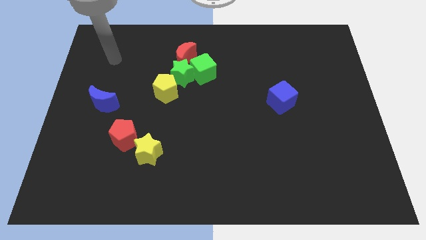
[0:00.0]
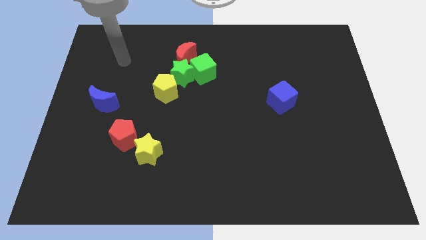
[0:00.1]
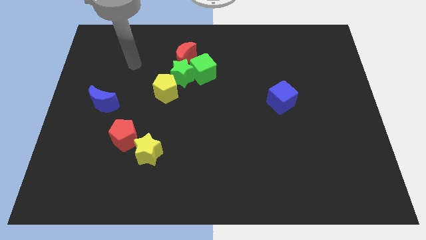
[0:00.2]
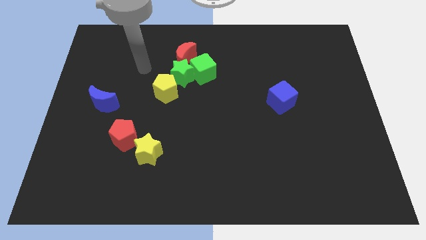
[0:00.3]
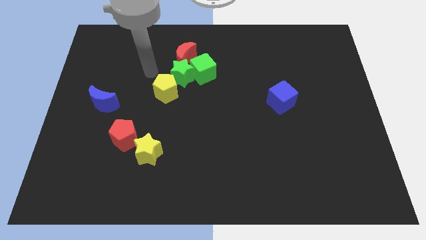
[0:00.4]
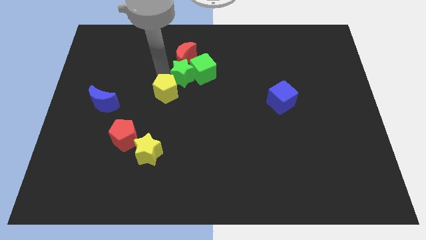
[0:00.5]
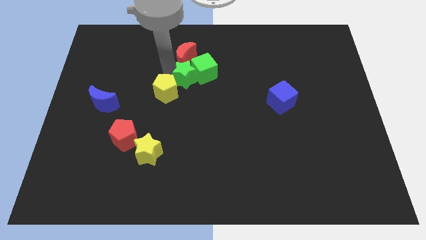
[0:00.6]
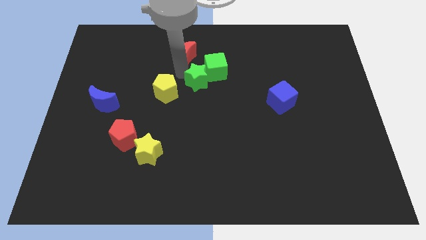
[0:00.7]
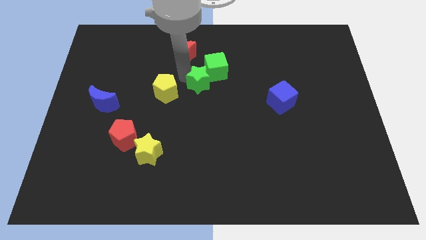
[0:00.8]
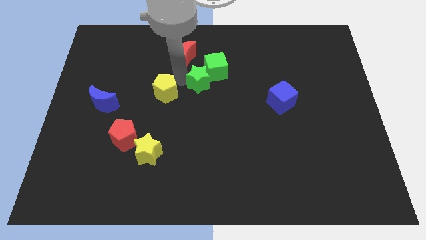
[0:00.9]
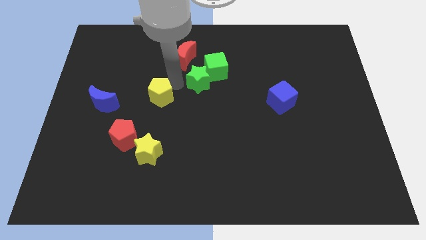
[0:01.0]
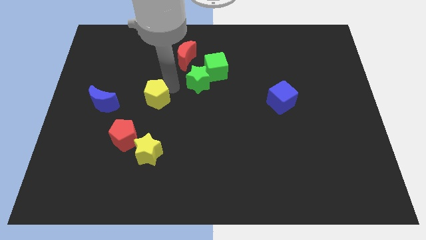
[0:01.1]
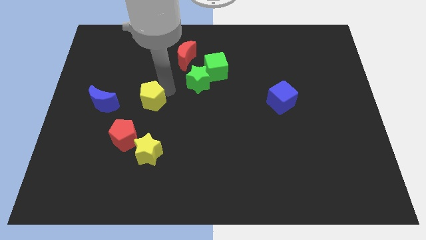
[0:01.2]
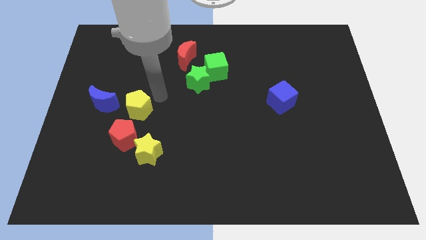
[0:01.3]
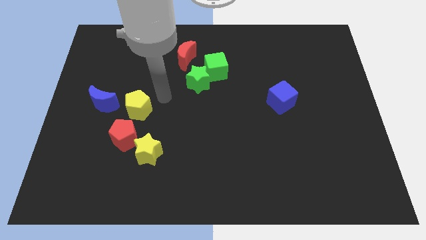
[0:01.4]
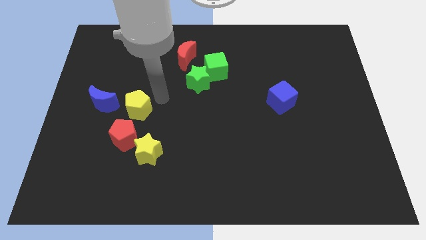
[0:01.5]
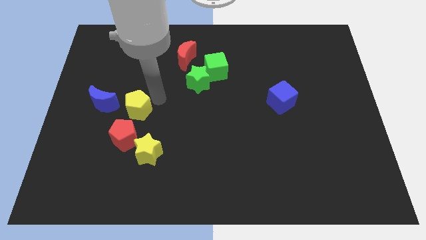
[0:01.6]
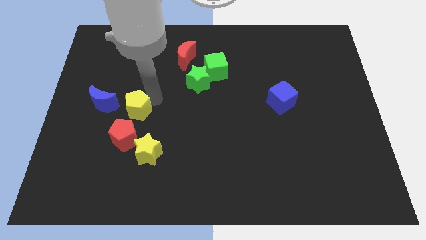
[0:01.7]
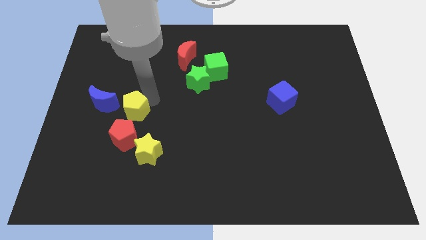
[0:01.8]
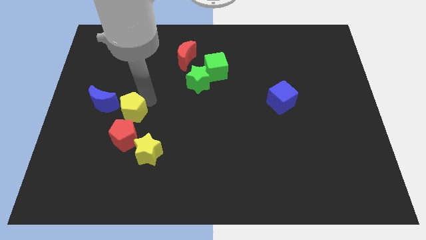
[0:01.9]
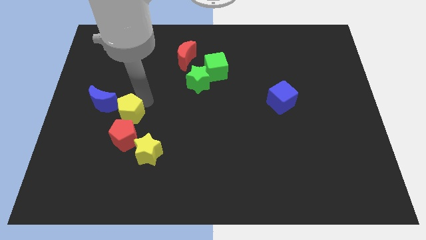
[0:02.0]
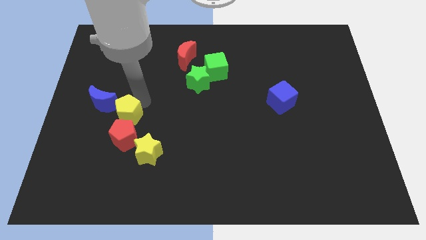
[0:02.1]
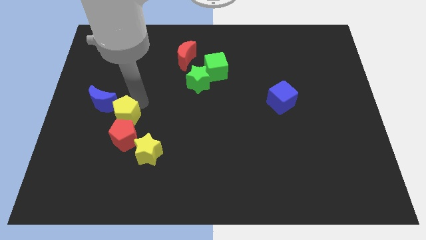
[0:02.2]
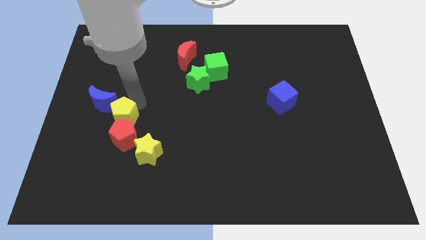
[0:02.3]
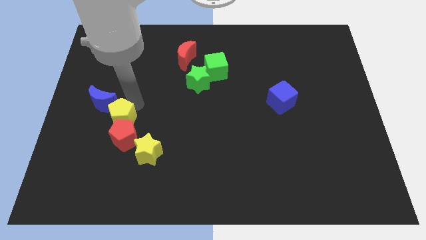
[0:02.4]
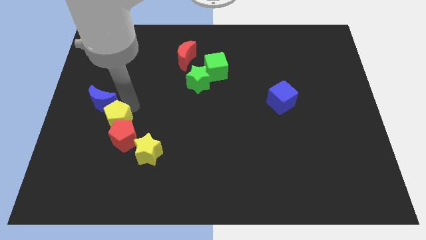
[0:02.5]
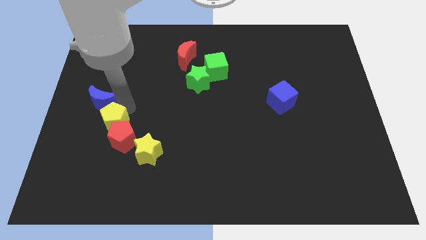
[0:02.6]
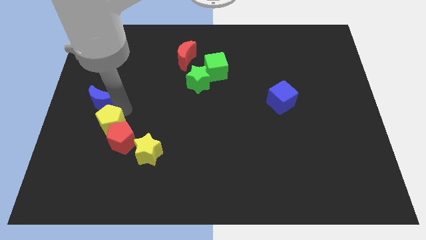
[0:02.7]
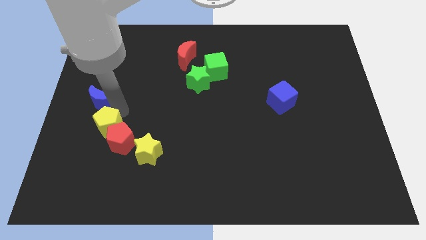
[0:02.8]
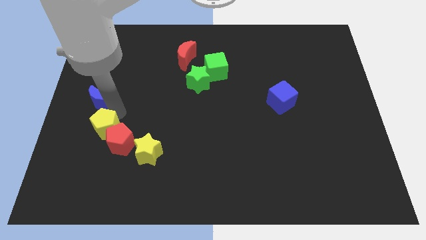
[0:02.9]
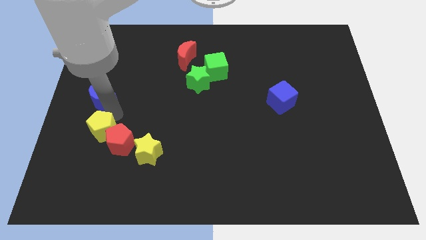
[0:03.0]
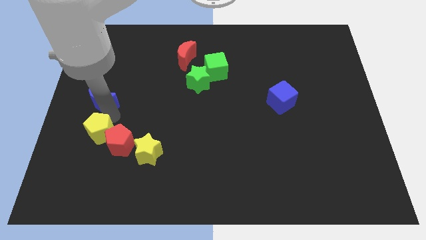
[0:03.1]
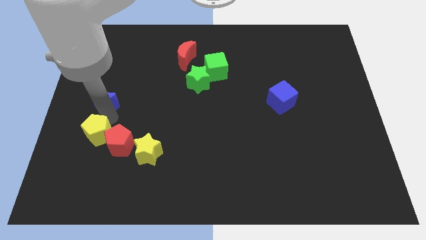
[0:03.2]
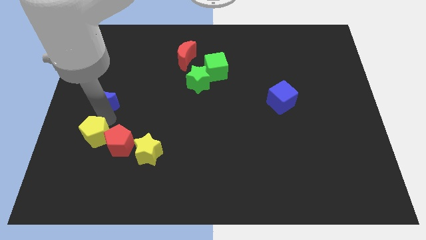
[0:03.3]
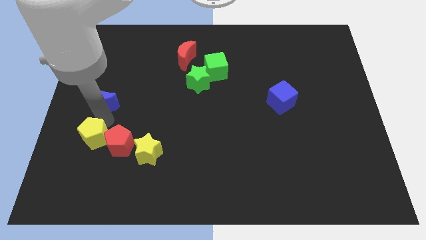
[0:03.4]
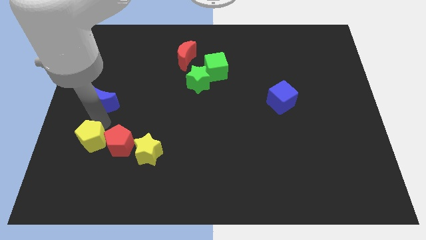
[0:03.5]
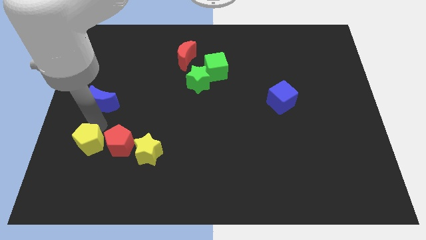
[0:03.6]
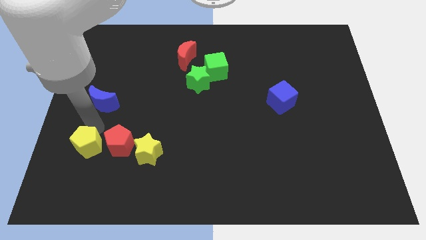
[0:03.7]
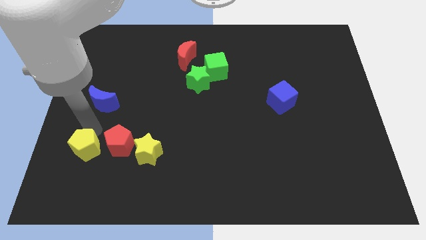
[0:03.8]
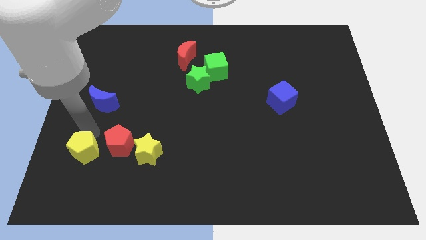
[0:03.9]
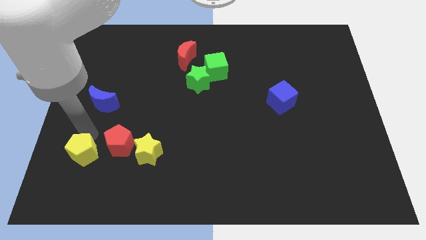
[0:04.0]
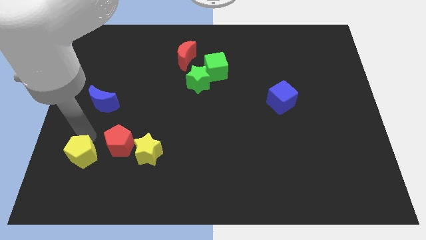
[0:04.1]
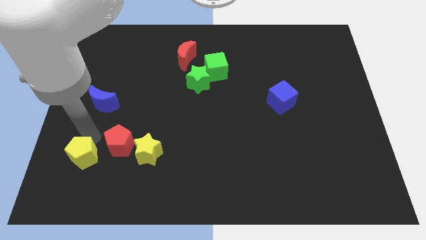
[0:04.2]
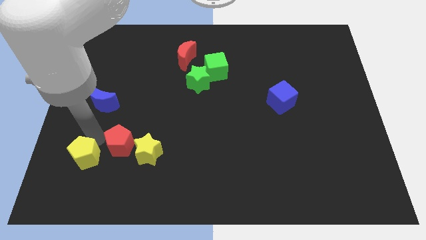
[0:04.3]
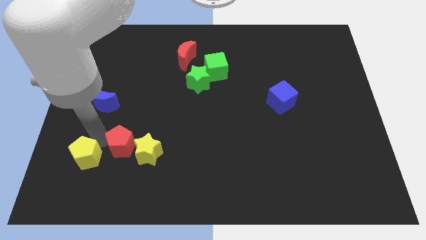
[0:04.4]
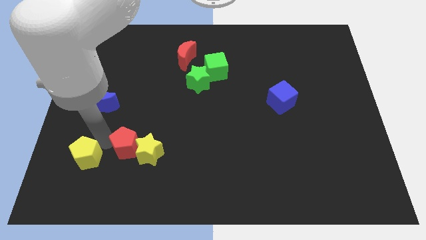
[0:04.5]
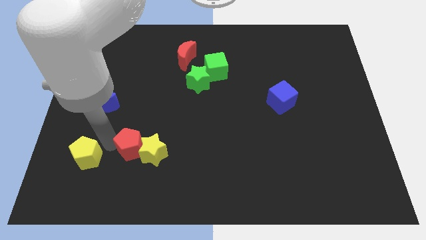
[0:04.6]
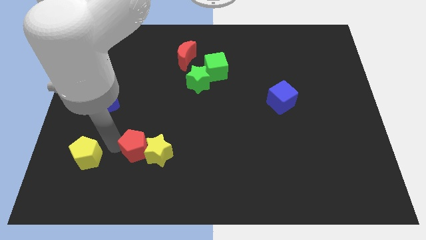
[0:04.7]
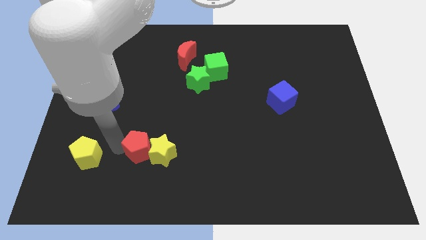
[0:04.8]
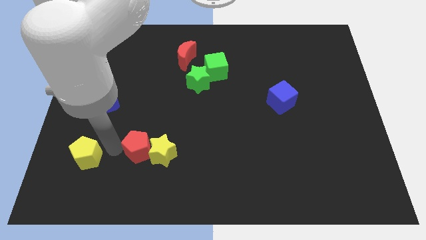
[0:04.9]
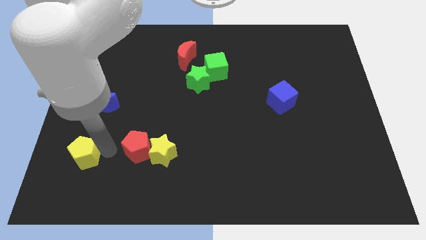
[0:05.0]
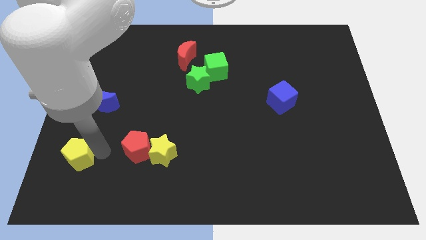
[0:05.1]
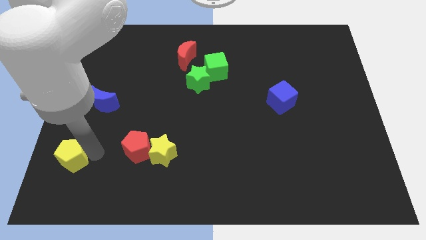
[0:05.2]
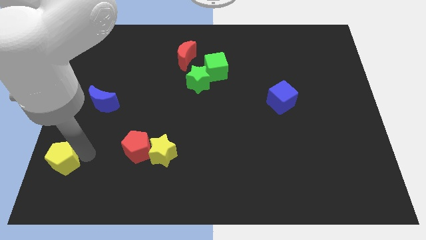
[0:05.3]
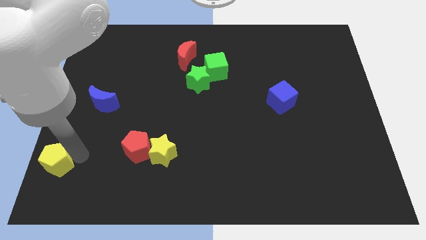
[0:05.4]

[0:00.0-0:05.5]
move the yellow pentagon to the bottom left corner

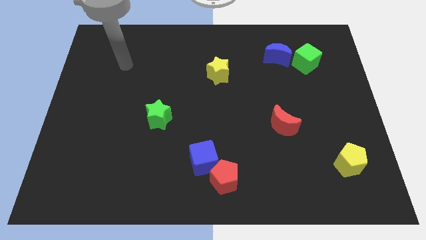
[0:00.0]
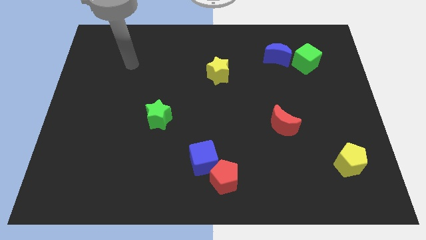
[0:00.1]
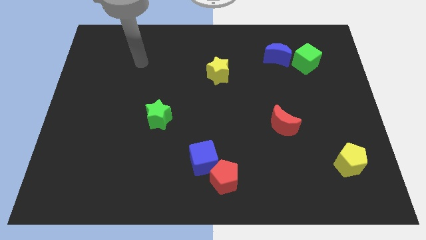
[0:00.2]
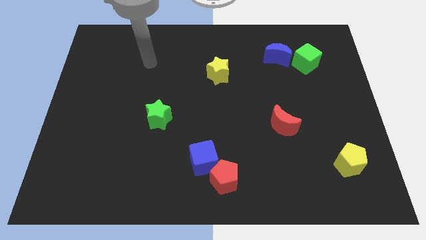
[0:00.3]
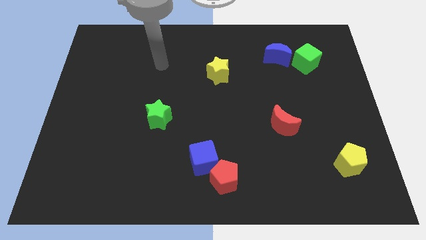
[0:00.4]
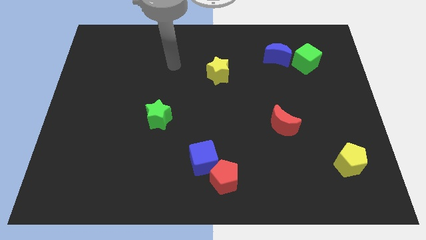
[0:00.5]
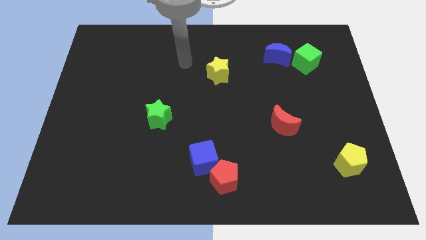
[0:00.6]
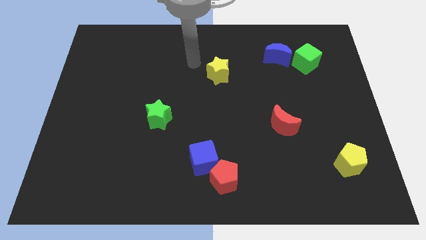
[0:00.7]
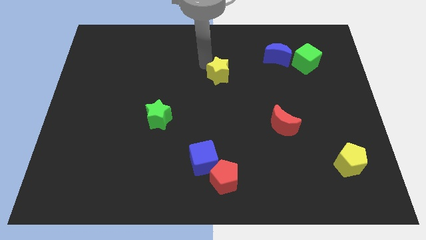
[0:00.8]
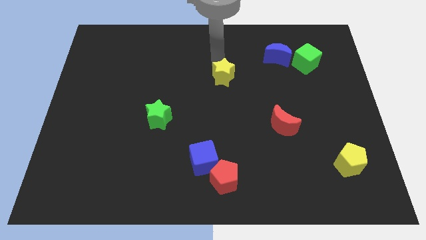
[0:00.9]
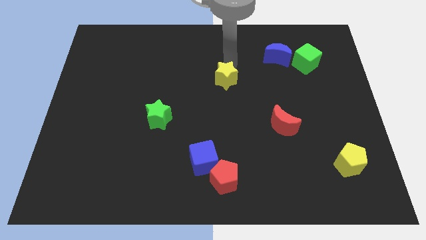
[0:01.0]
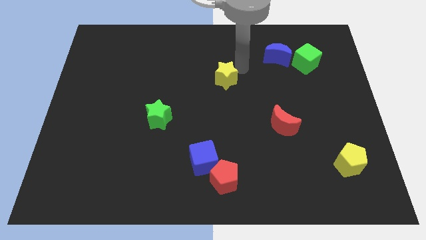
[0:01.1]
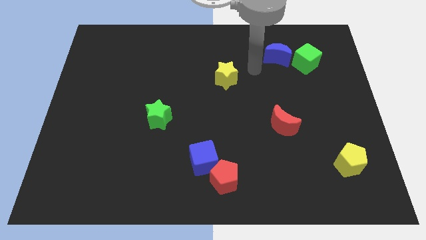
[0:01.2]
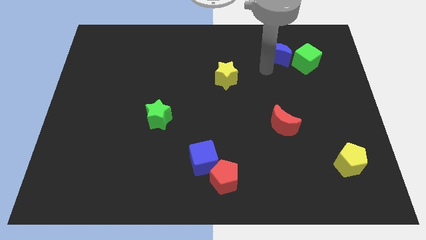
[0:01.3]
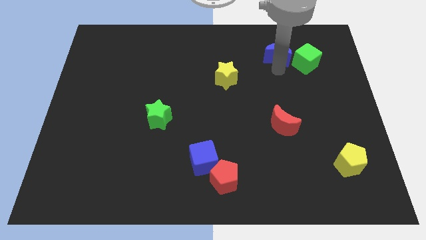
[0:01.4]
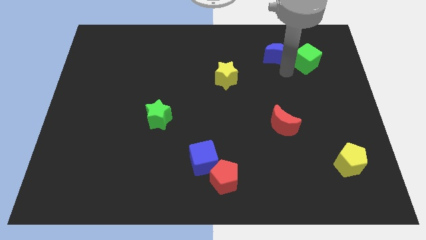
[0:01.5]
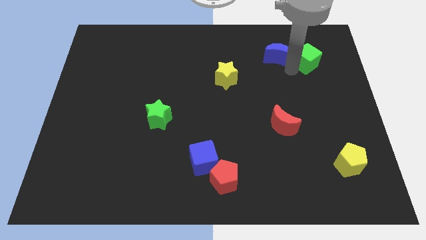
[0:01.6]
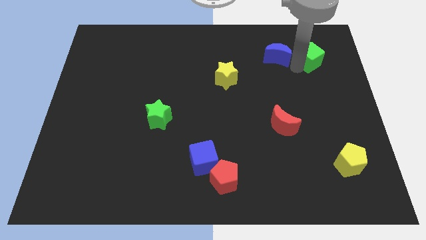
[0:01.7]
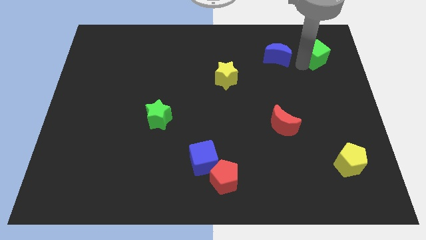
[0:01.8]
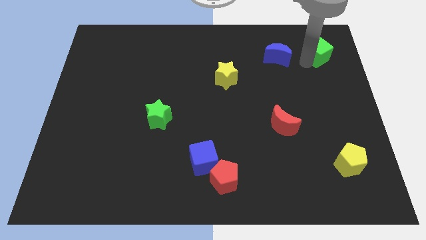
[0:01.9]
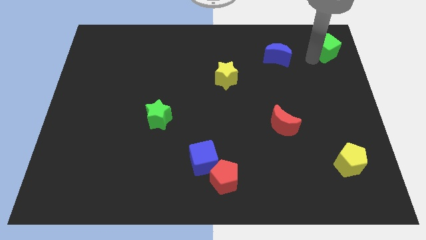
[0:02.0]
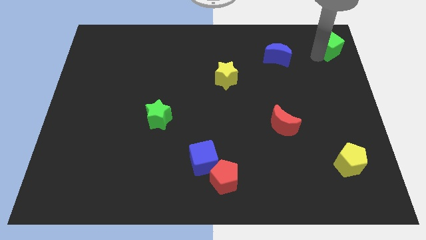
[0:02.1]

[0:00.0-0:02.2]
push the green cube to the upper right corner
